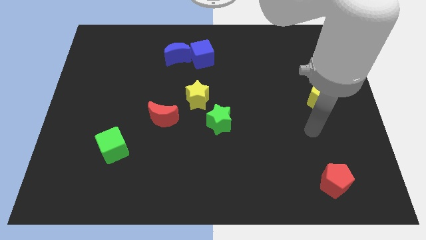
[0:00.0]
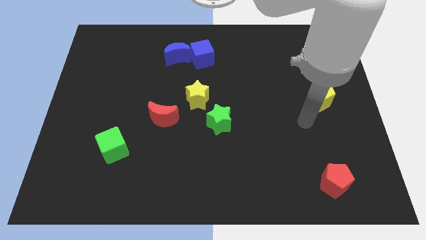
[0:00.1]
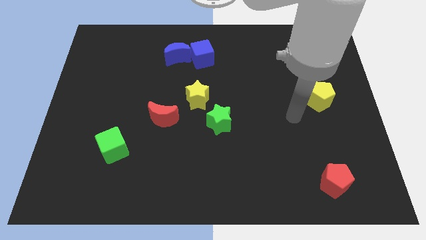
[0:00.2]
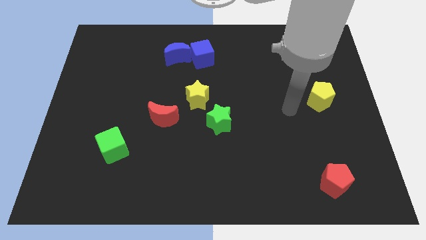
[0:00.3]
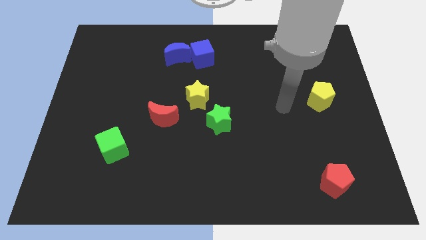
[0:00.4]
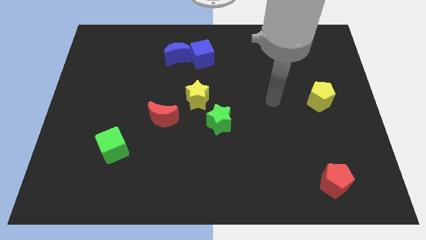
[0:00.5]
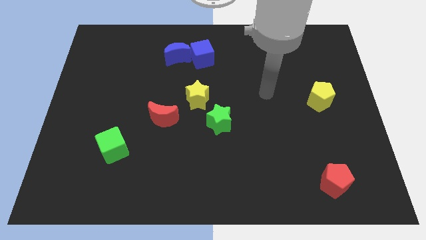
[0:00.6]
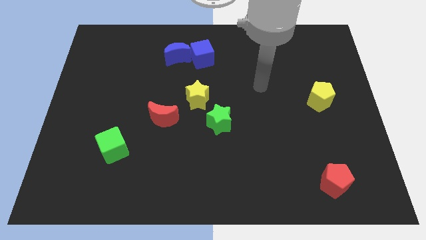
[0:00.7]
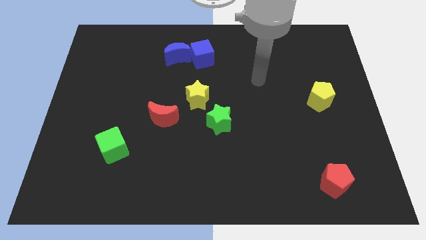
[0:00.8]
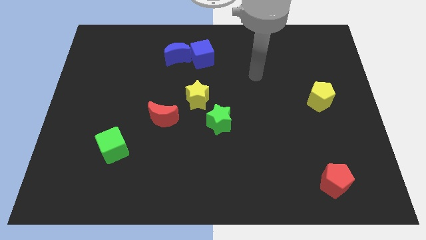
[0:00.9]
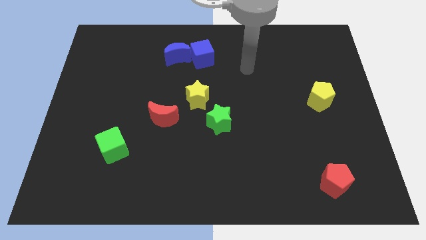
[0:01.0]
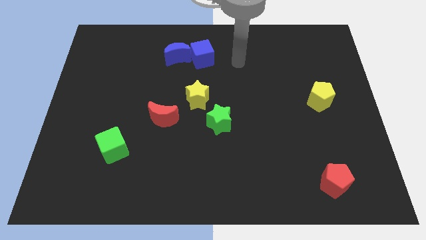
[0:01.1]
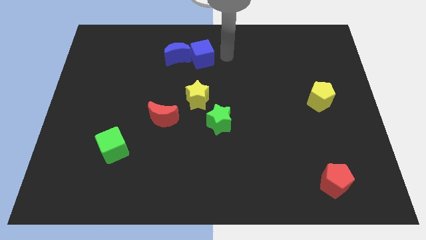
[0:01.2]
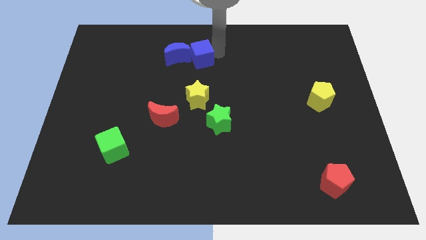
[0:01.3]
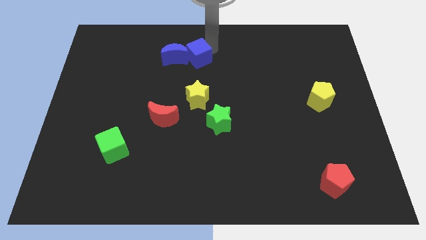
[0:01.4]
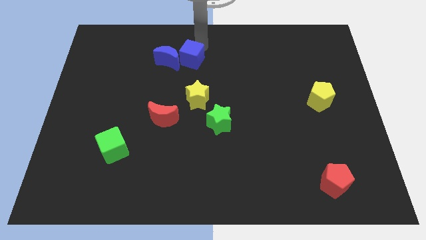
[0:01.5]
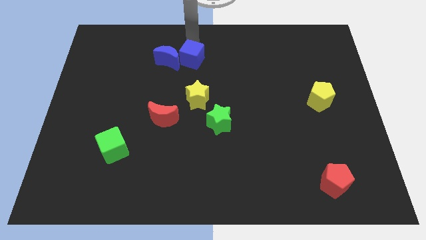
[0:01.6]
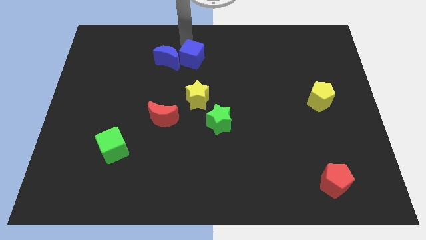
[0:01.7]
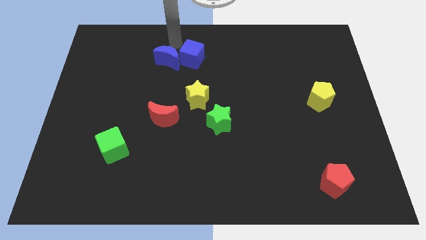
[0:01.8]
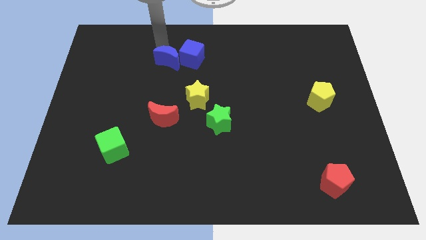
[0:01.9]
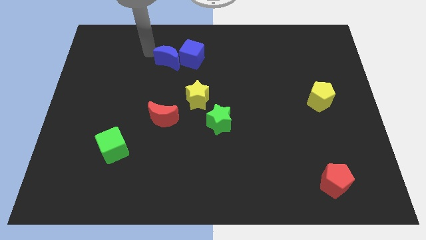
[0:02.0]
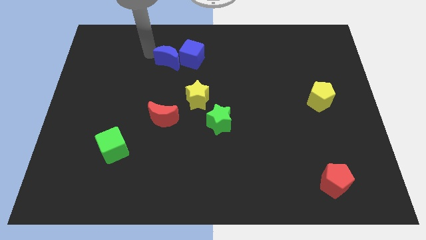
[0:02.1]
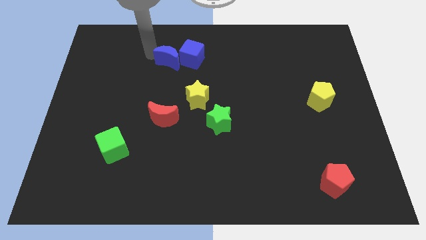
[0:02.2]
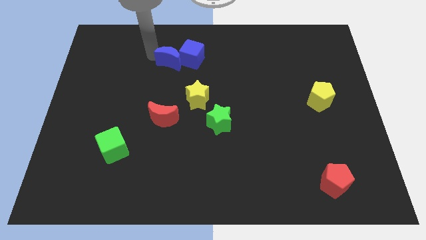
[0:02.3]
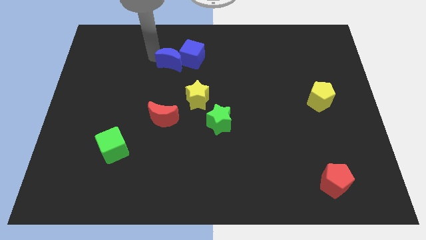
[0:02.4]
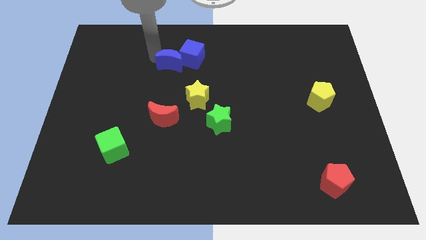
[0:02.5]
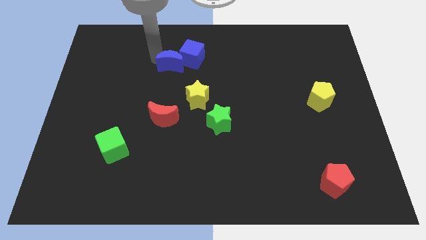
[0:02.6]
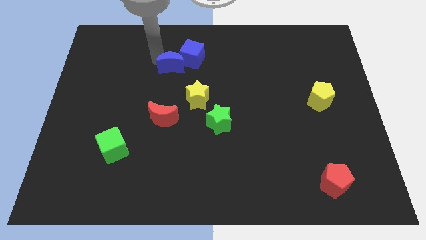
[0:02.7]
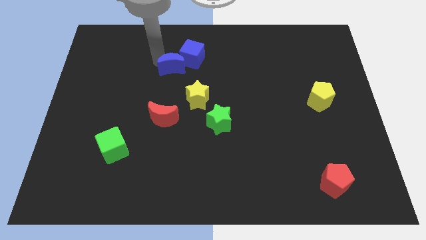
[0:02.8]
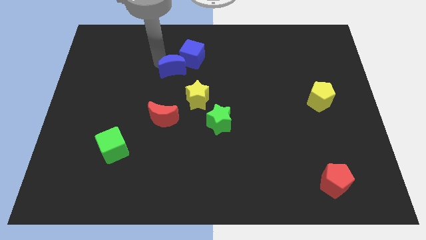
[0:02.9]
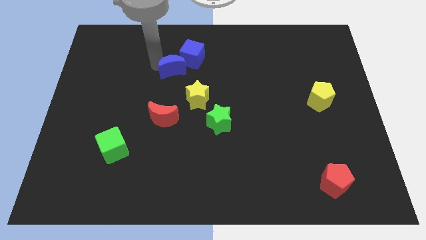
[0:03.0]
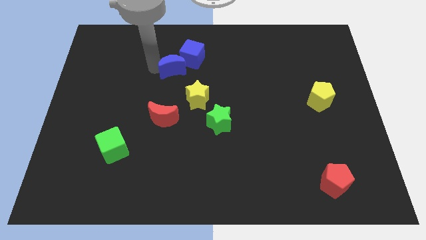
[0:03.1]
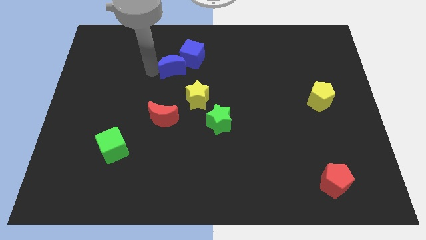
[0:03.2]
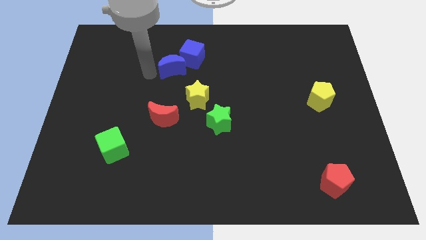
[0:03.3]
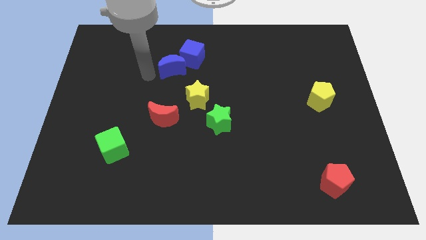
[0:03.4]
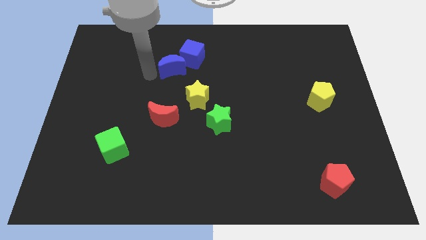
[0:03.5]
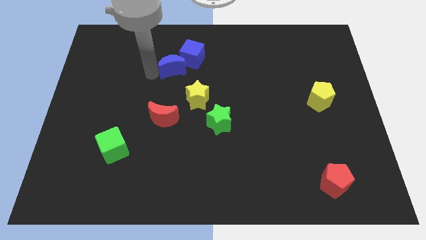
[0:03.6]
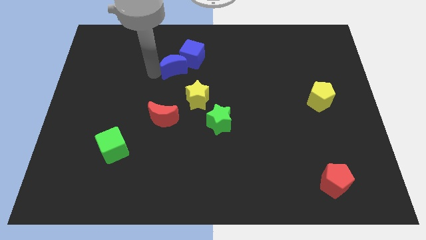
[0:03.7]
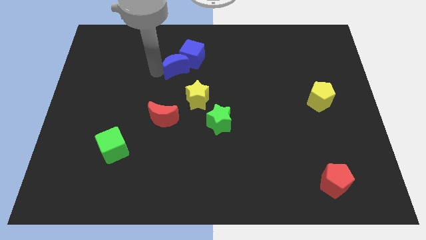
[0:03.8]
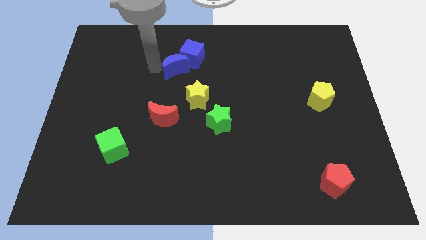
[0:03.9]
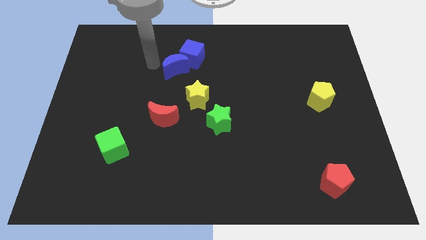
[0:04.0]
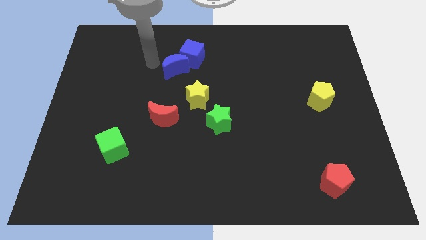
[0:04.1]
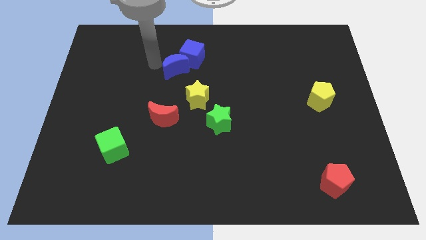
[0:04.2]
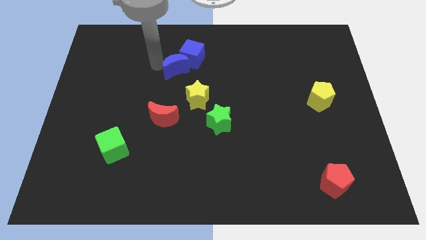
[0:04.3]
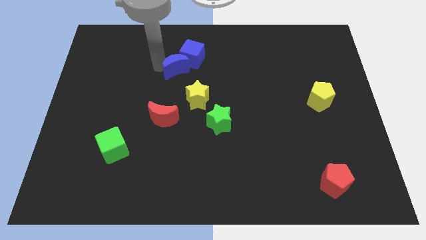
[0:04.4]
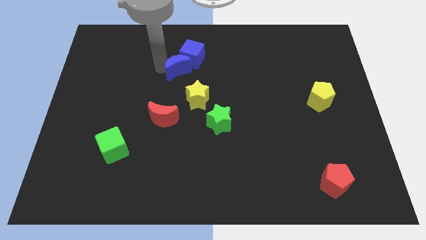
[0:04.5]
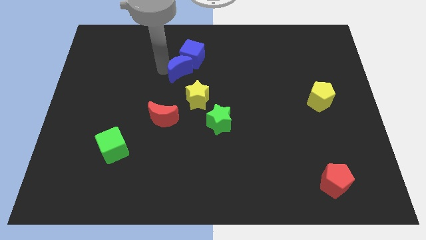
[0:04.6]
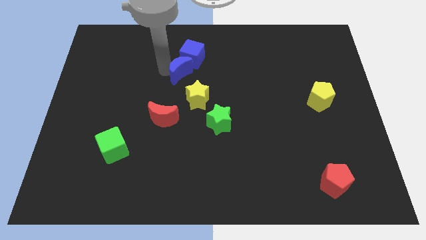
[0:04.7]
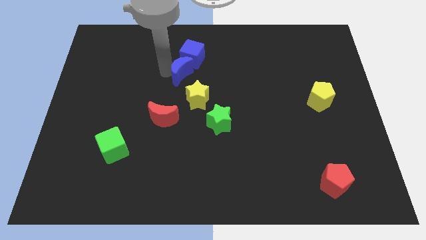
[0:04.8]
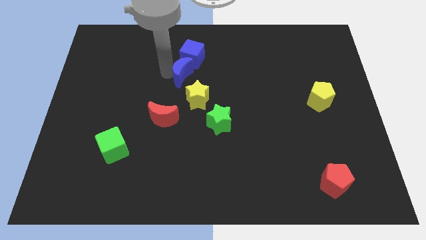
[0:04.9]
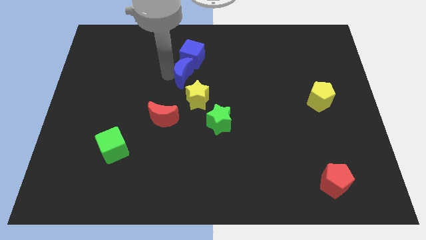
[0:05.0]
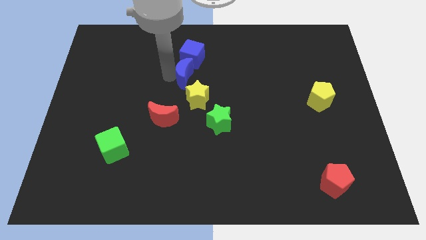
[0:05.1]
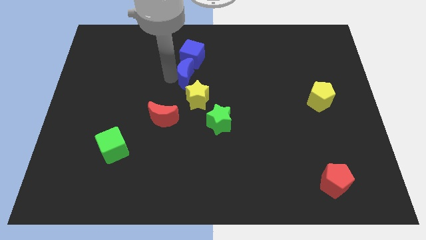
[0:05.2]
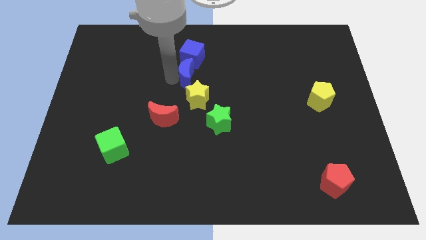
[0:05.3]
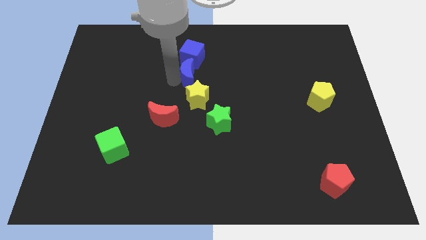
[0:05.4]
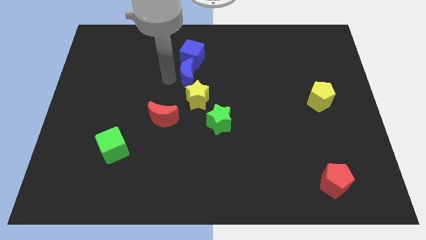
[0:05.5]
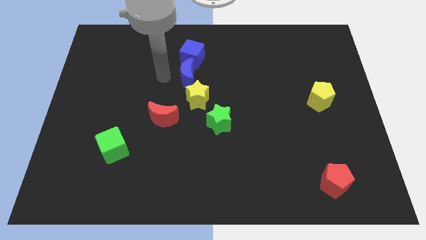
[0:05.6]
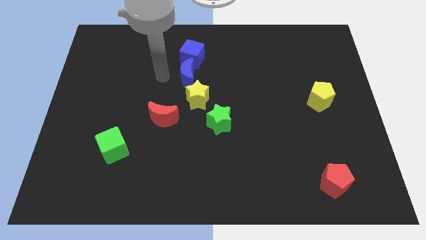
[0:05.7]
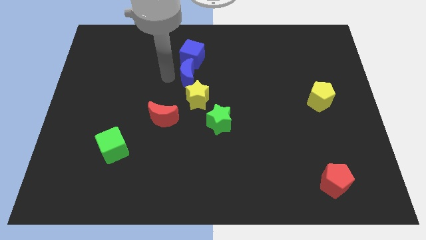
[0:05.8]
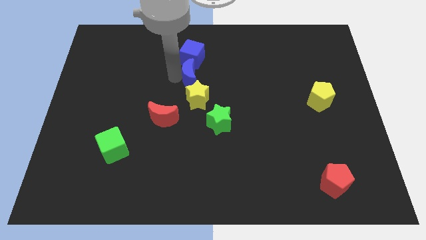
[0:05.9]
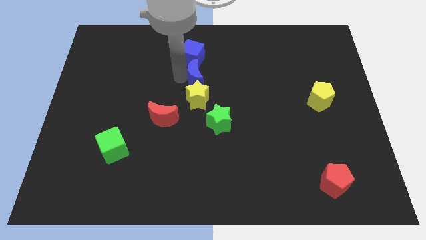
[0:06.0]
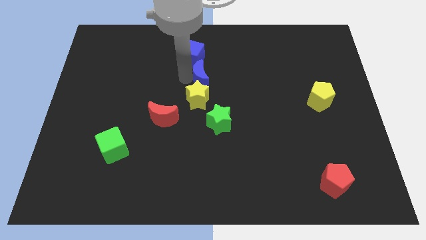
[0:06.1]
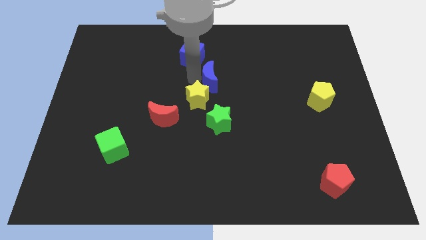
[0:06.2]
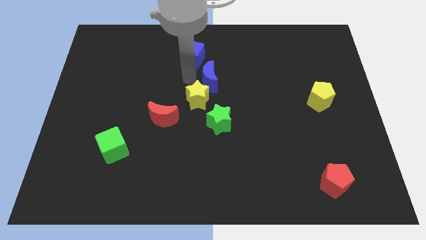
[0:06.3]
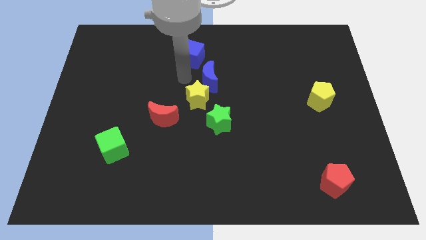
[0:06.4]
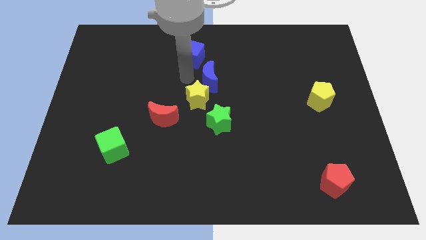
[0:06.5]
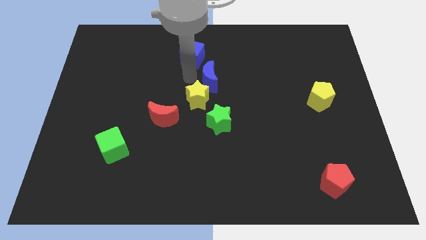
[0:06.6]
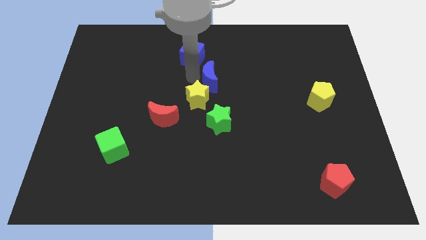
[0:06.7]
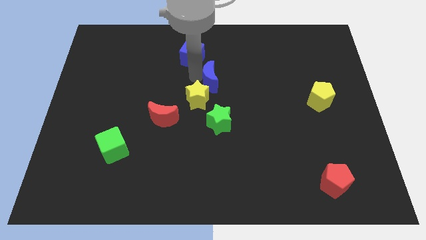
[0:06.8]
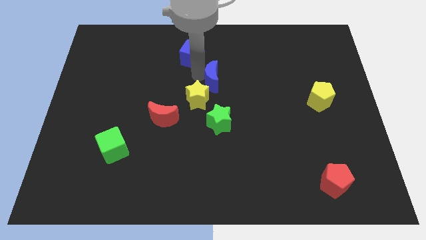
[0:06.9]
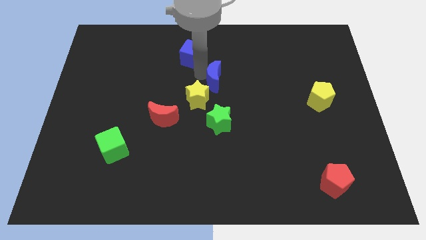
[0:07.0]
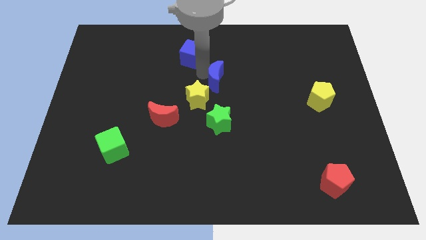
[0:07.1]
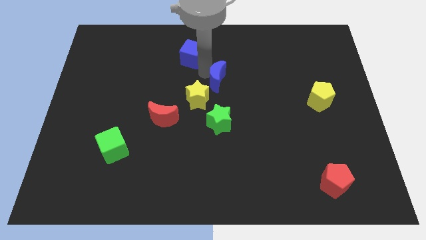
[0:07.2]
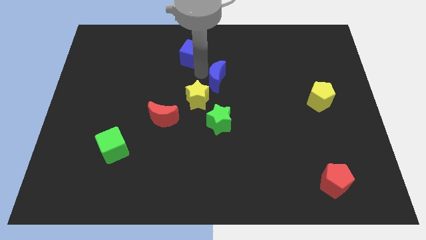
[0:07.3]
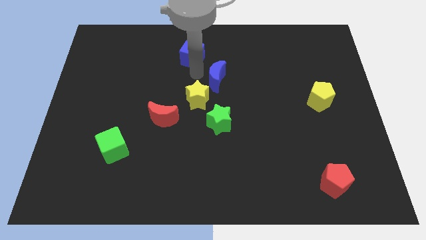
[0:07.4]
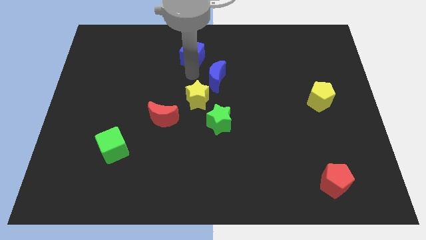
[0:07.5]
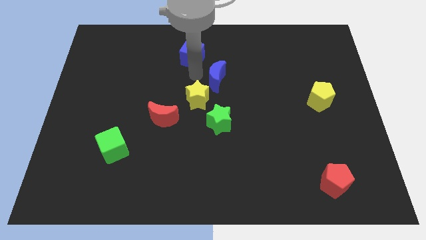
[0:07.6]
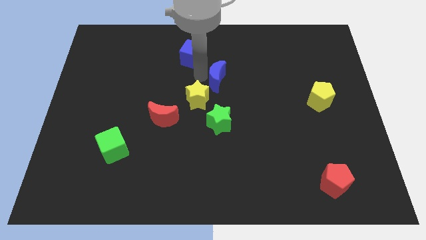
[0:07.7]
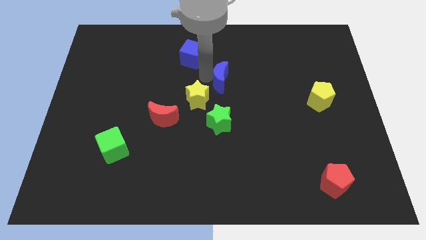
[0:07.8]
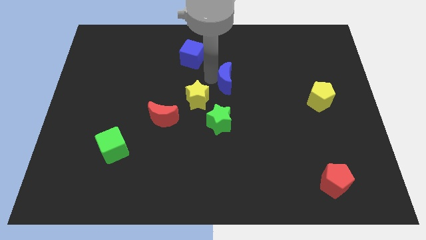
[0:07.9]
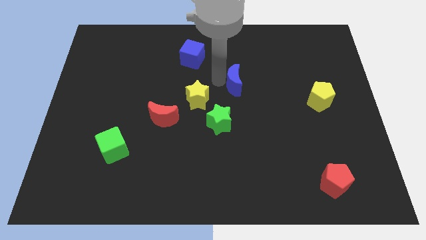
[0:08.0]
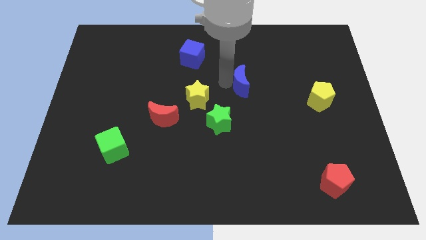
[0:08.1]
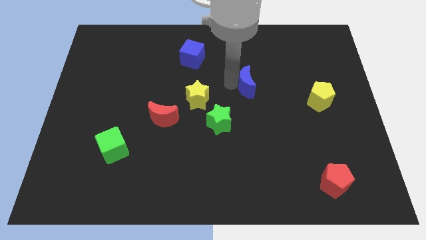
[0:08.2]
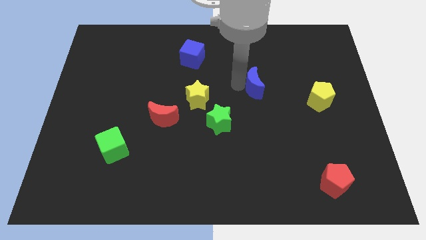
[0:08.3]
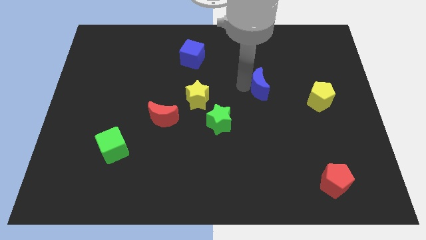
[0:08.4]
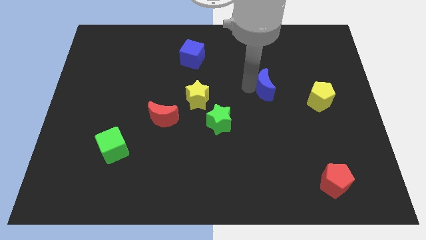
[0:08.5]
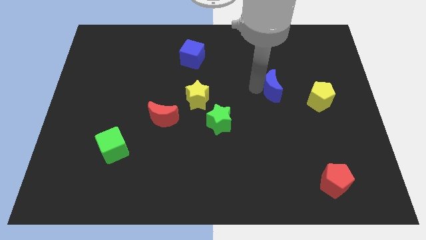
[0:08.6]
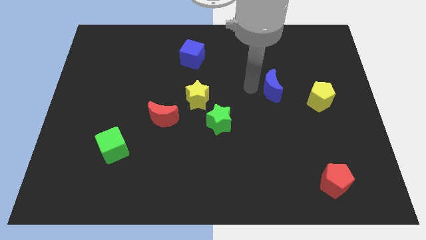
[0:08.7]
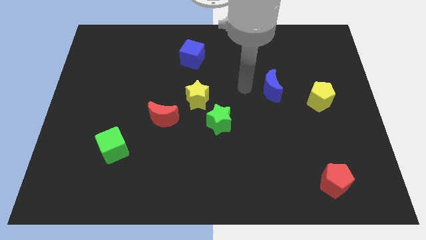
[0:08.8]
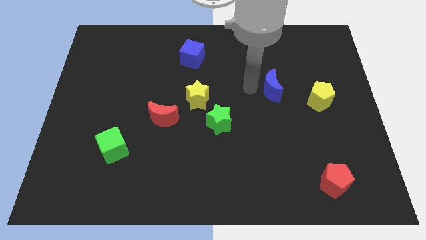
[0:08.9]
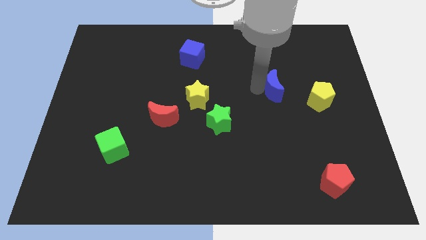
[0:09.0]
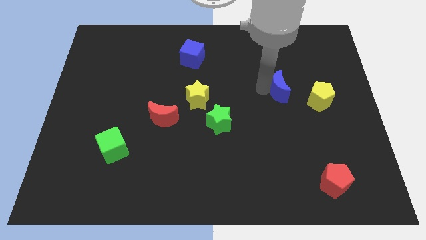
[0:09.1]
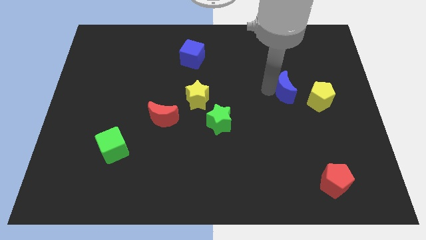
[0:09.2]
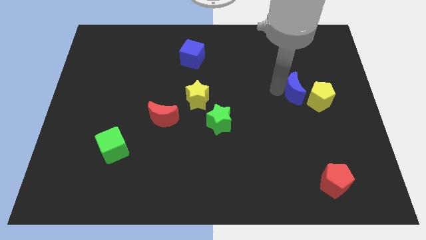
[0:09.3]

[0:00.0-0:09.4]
move the blue moon next to the yellow pentagon
